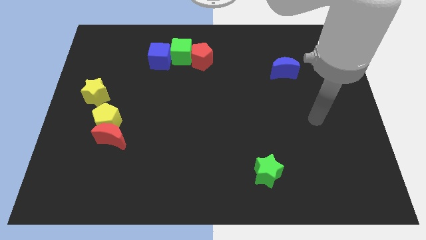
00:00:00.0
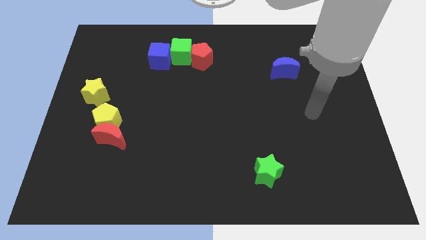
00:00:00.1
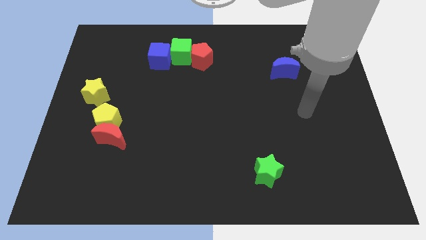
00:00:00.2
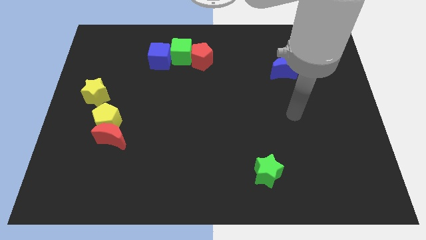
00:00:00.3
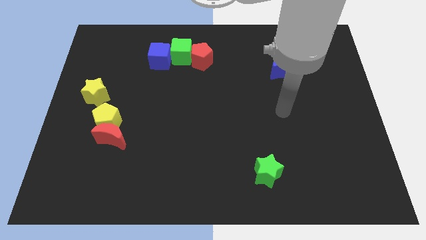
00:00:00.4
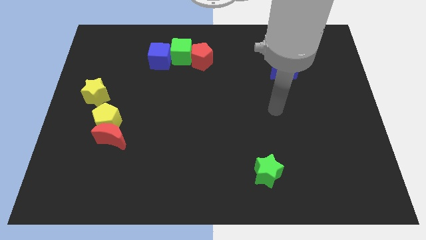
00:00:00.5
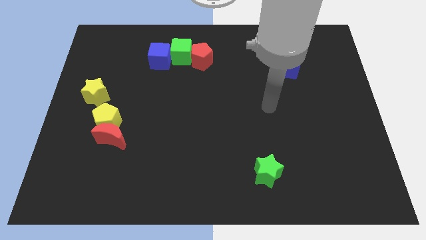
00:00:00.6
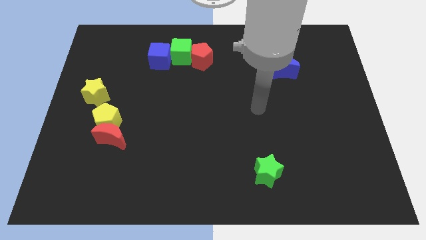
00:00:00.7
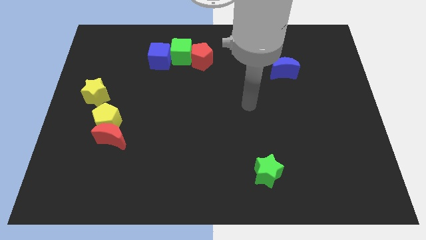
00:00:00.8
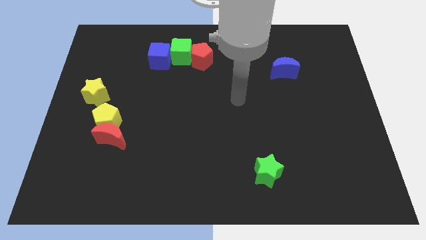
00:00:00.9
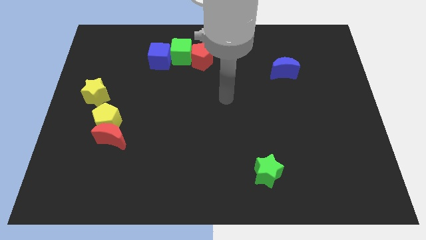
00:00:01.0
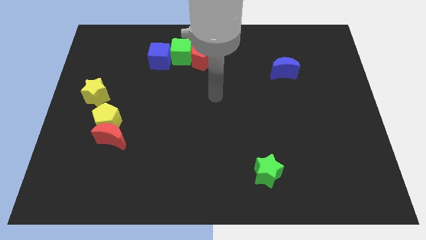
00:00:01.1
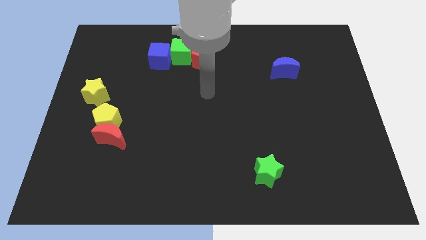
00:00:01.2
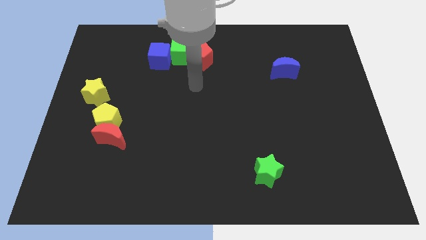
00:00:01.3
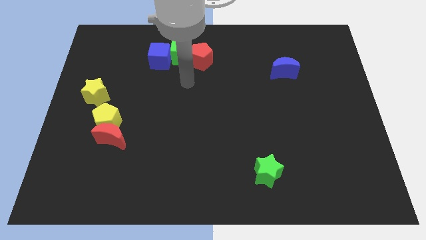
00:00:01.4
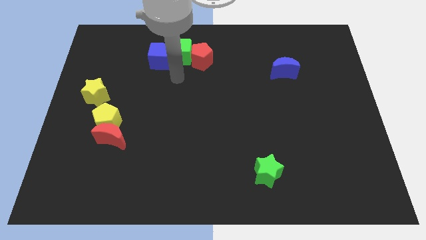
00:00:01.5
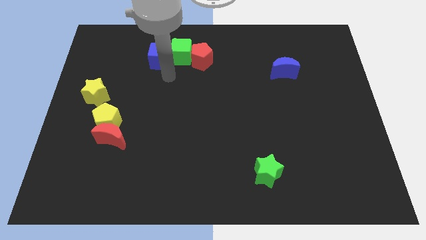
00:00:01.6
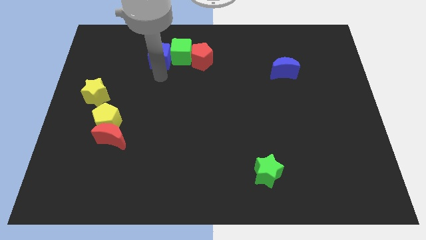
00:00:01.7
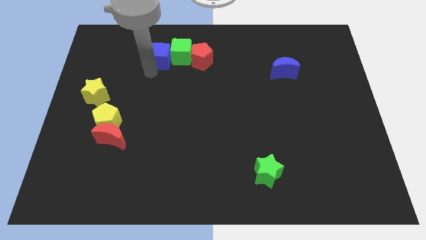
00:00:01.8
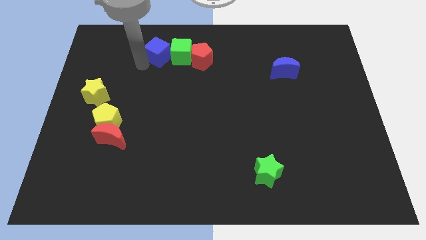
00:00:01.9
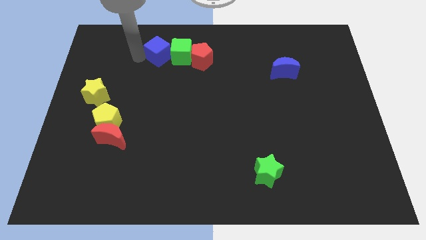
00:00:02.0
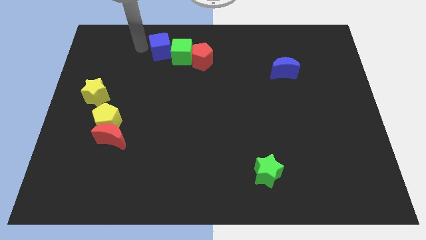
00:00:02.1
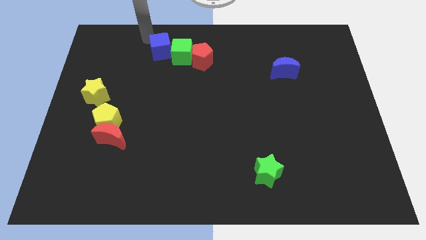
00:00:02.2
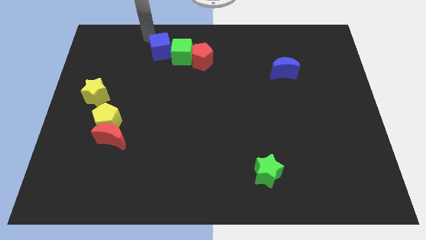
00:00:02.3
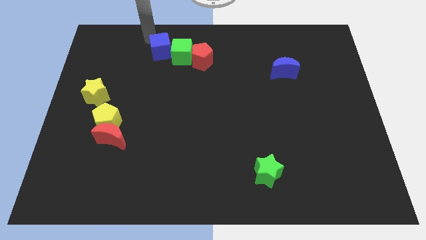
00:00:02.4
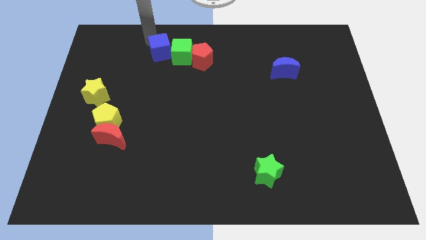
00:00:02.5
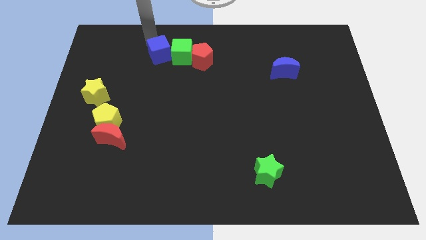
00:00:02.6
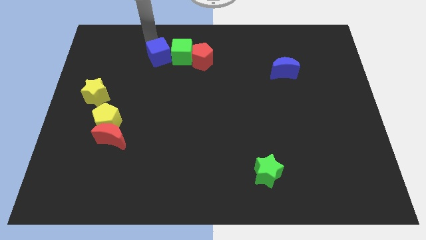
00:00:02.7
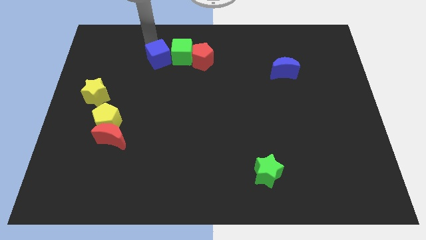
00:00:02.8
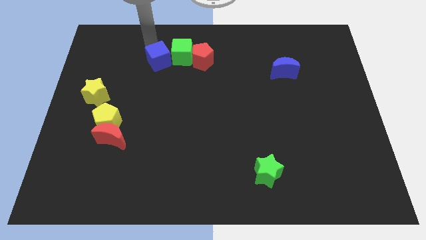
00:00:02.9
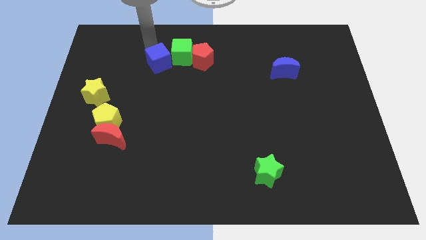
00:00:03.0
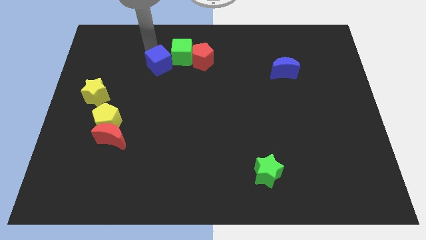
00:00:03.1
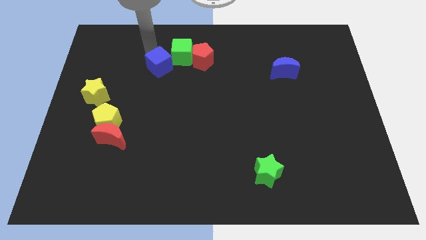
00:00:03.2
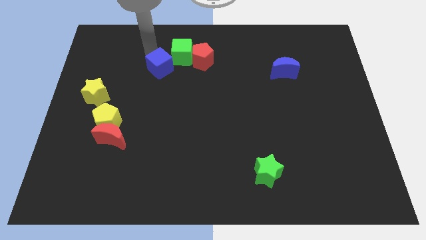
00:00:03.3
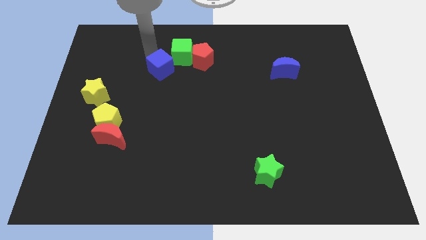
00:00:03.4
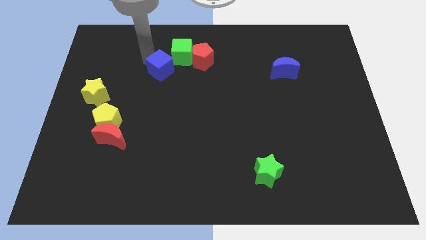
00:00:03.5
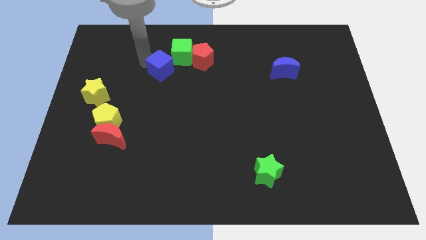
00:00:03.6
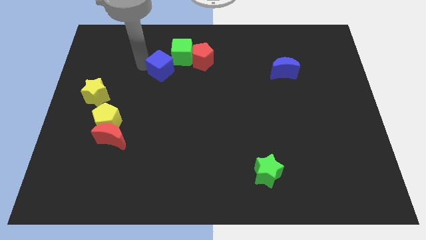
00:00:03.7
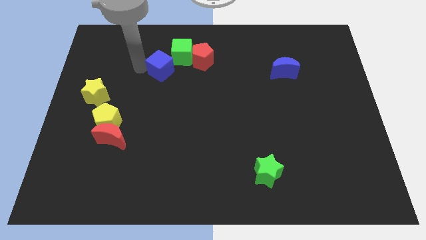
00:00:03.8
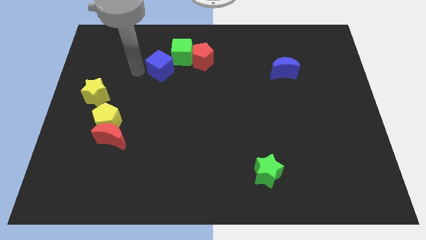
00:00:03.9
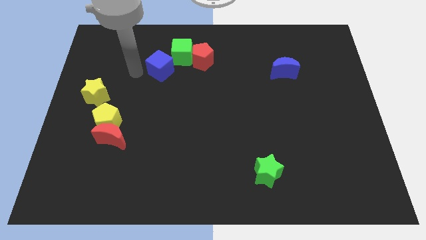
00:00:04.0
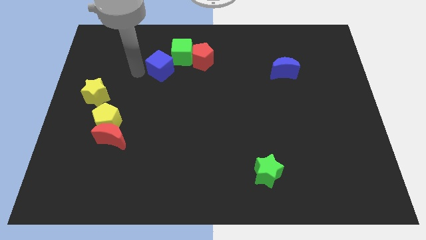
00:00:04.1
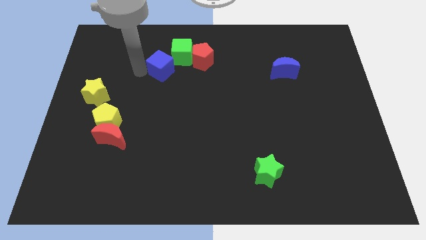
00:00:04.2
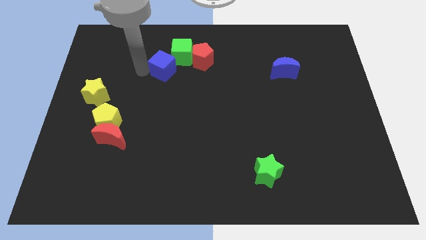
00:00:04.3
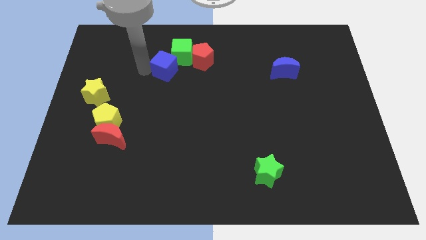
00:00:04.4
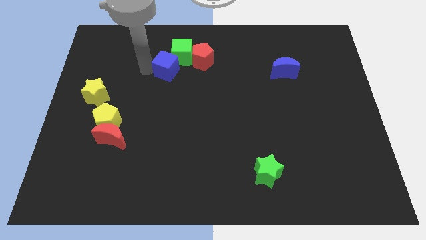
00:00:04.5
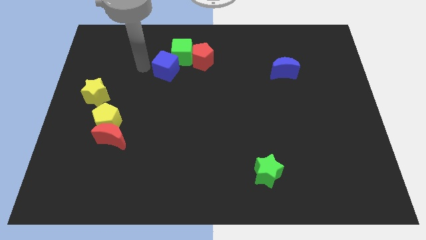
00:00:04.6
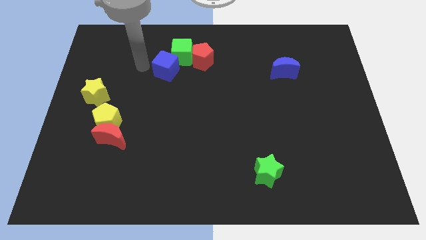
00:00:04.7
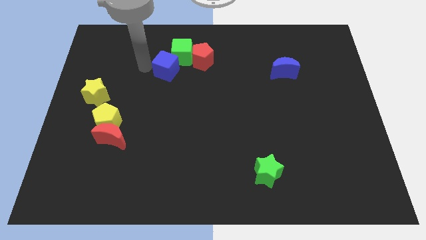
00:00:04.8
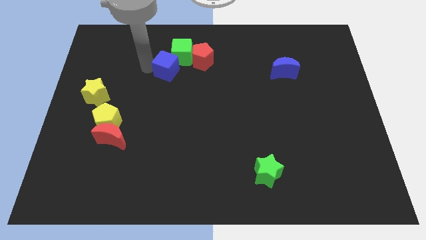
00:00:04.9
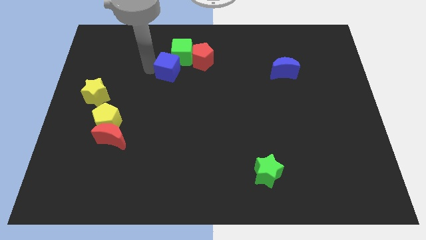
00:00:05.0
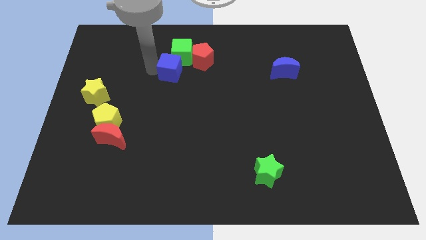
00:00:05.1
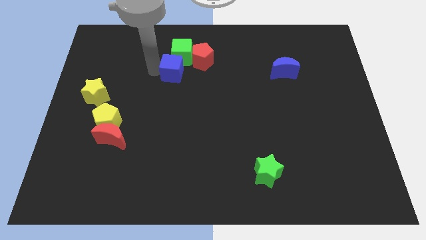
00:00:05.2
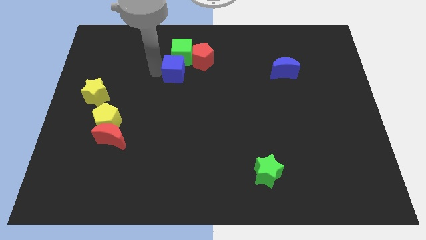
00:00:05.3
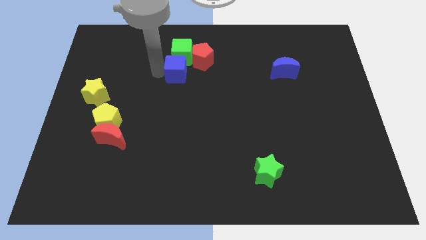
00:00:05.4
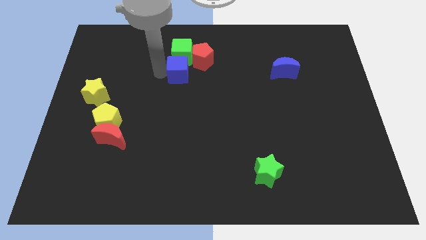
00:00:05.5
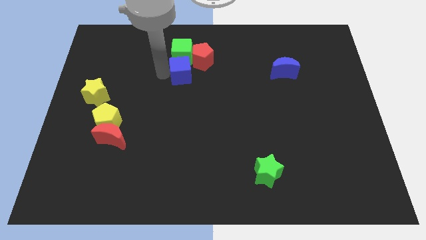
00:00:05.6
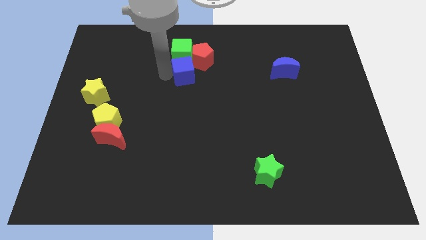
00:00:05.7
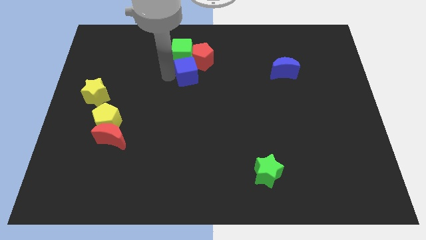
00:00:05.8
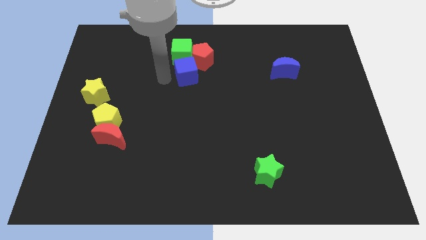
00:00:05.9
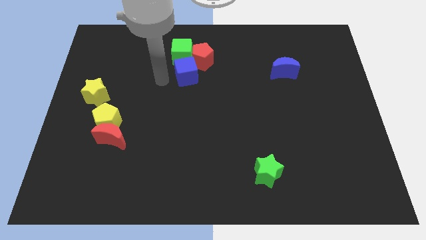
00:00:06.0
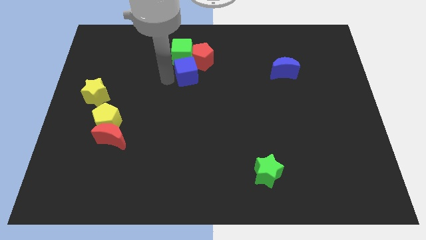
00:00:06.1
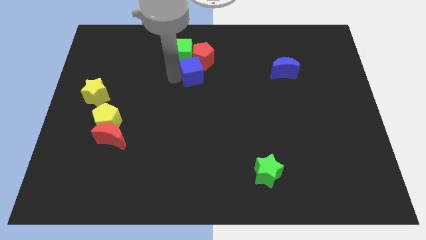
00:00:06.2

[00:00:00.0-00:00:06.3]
slightly slide the blue cube right

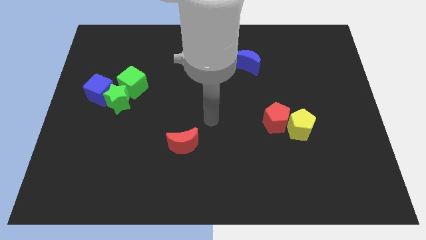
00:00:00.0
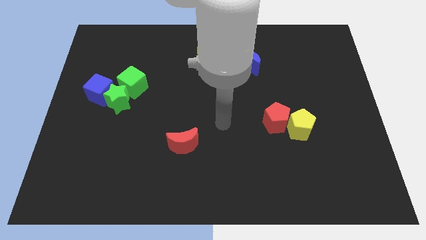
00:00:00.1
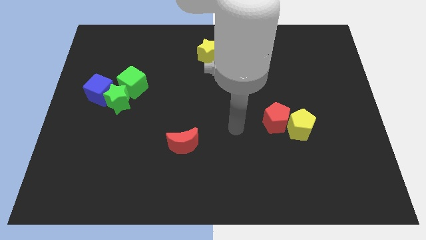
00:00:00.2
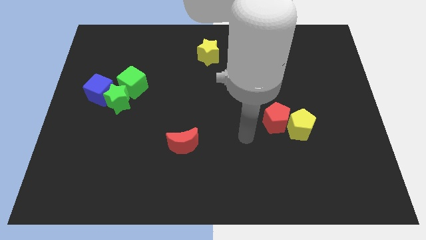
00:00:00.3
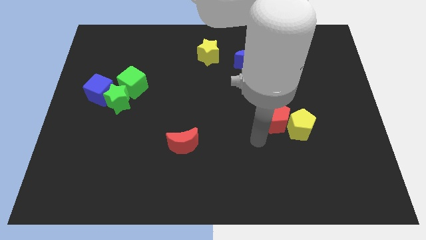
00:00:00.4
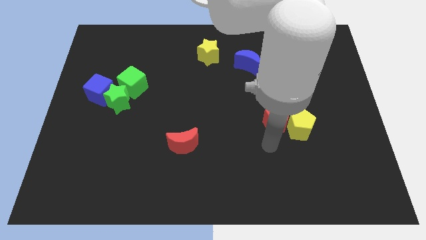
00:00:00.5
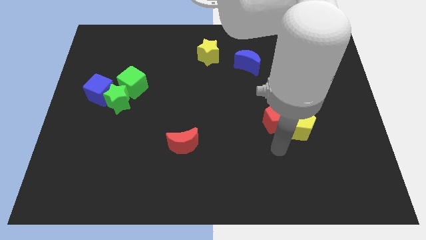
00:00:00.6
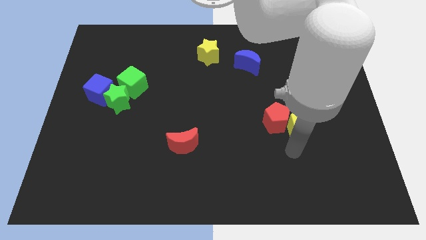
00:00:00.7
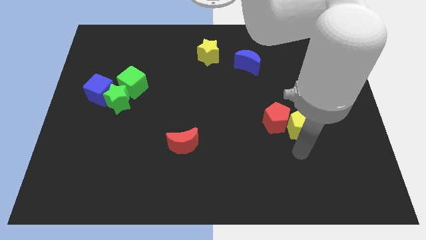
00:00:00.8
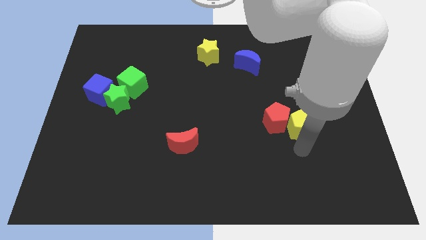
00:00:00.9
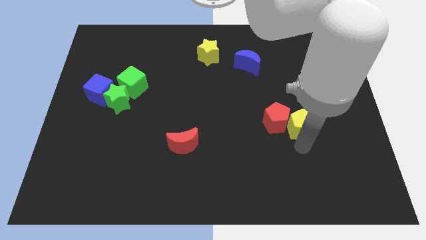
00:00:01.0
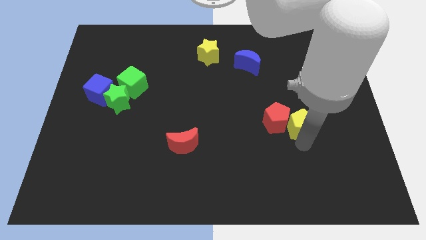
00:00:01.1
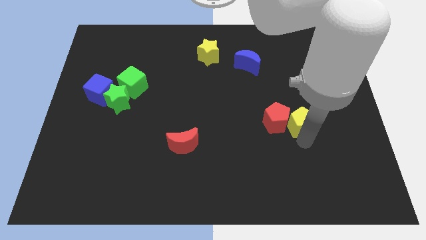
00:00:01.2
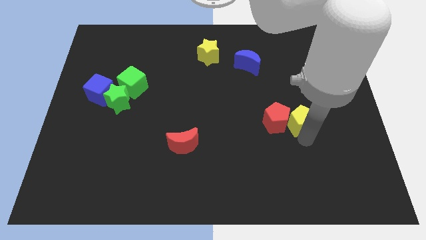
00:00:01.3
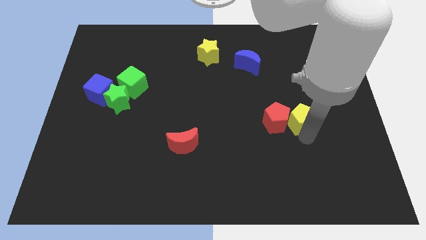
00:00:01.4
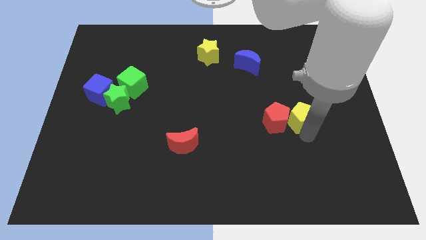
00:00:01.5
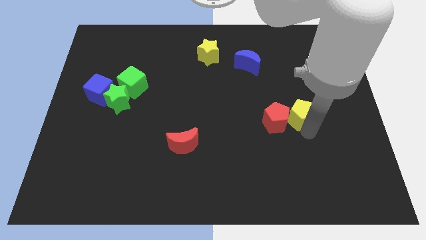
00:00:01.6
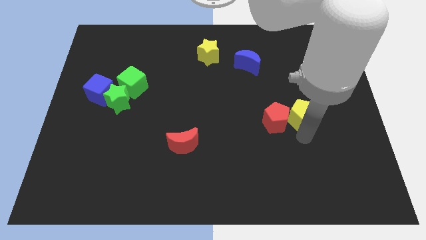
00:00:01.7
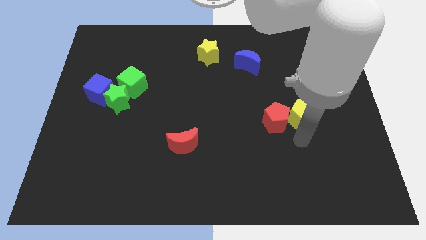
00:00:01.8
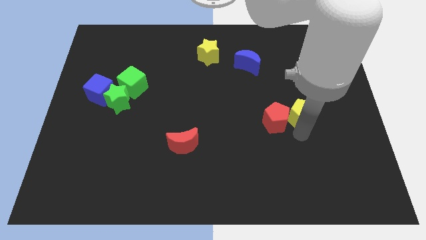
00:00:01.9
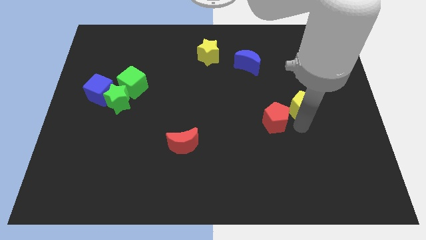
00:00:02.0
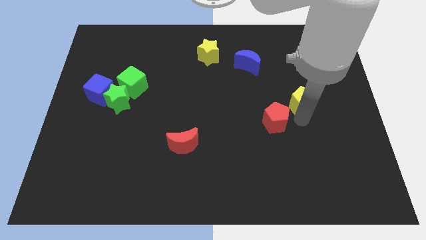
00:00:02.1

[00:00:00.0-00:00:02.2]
slightly push the yellow pentagon upwards
